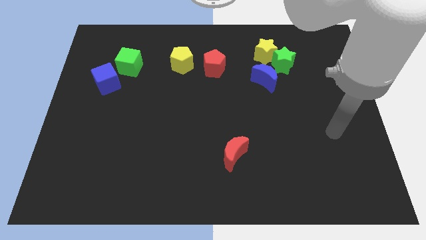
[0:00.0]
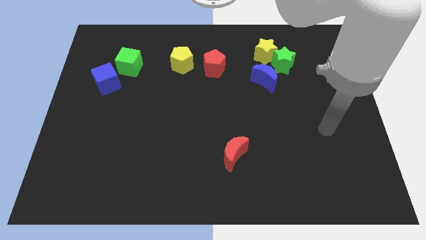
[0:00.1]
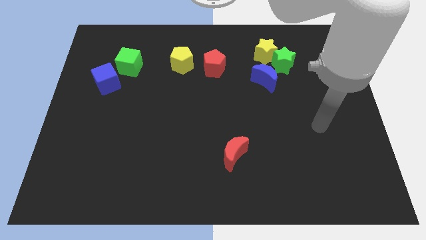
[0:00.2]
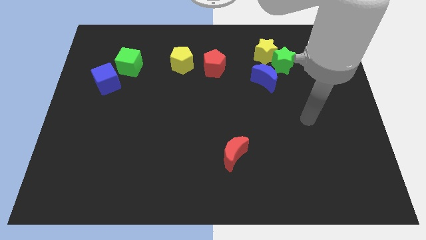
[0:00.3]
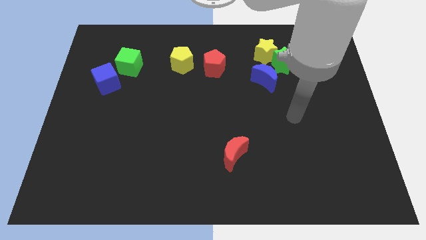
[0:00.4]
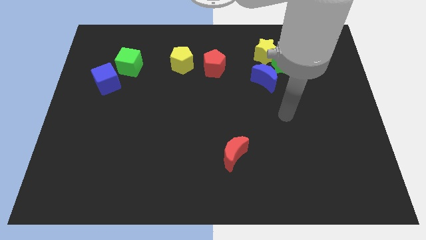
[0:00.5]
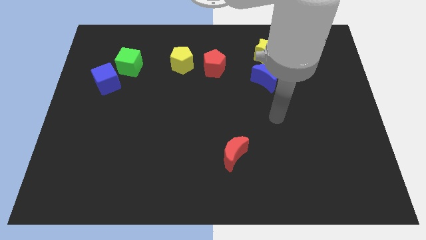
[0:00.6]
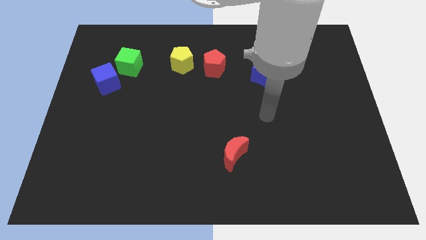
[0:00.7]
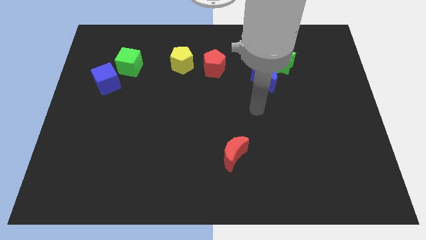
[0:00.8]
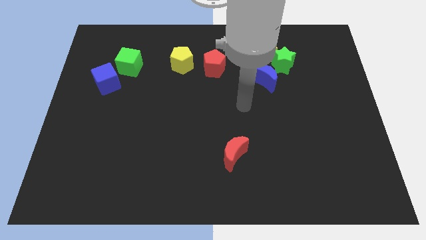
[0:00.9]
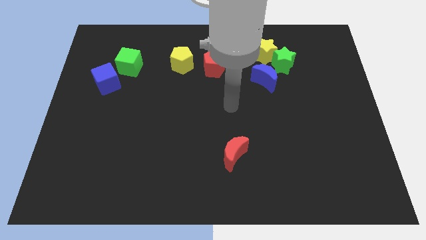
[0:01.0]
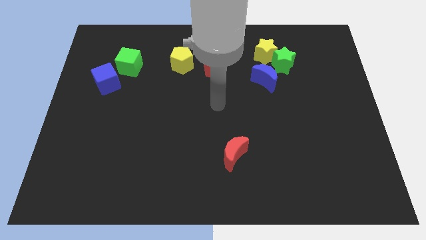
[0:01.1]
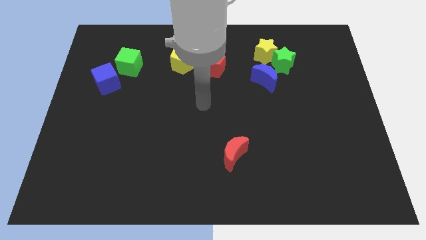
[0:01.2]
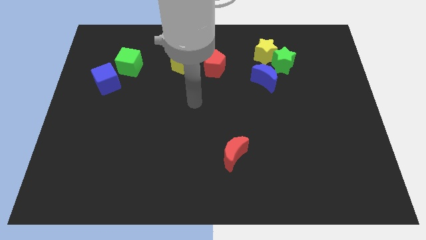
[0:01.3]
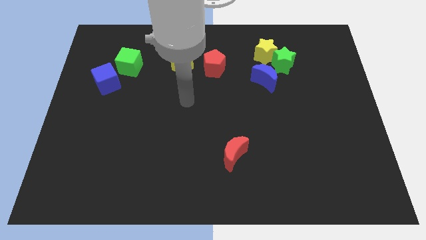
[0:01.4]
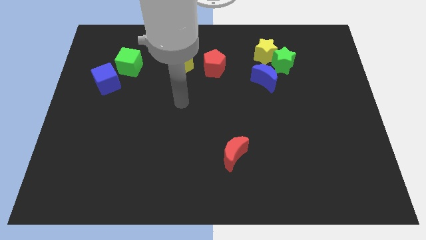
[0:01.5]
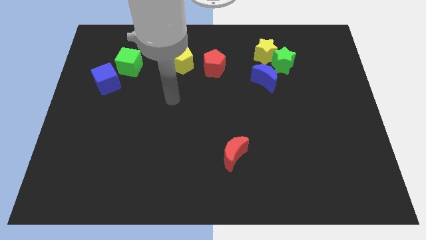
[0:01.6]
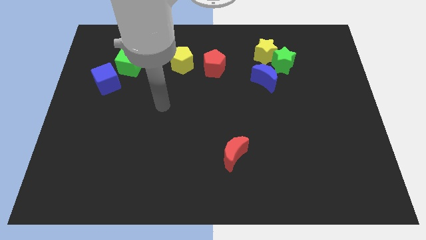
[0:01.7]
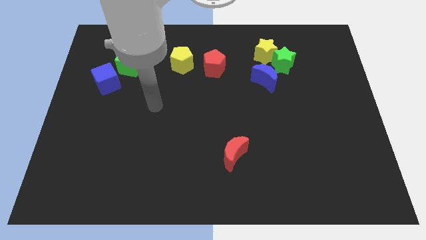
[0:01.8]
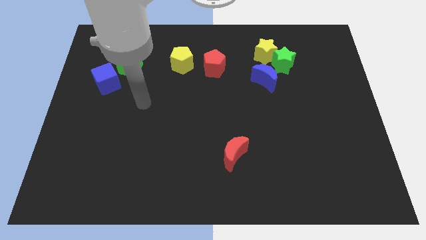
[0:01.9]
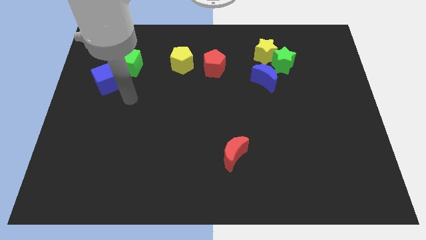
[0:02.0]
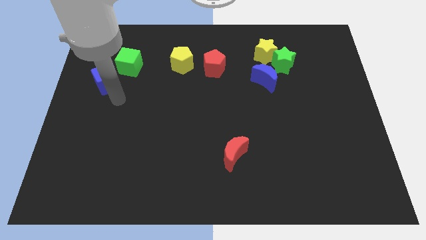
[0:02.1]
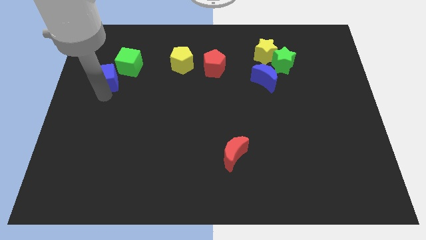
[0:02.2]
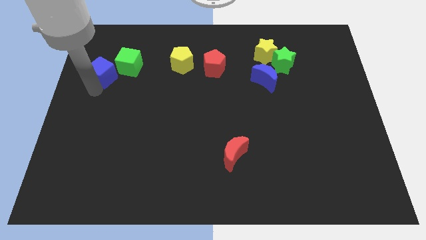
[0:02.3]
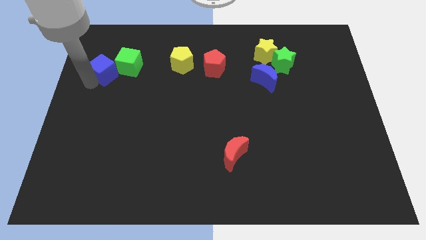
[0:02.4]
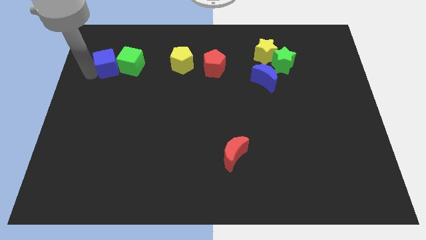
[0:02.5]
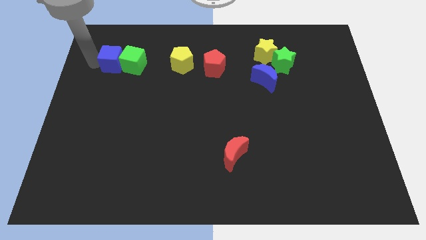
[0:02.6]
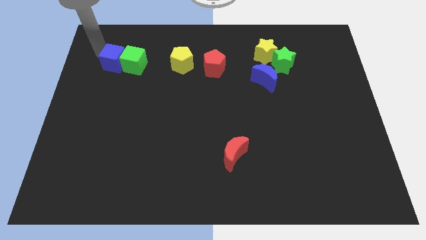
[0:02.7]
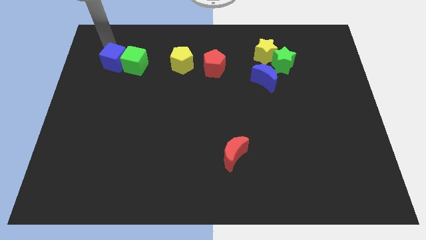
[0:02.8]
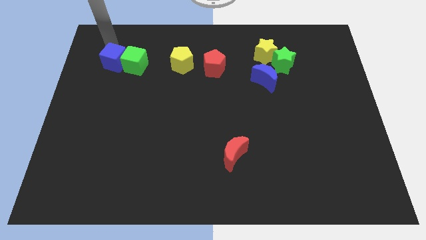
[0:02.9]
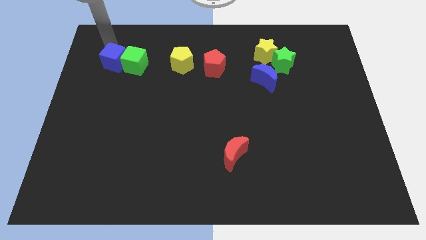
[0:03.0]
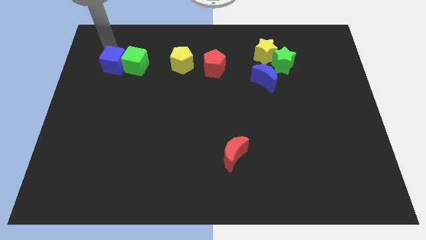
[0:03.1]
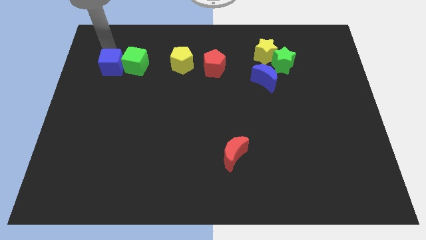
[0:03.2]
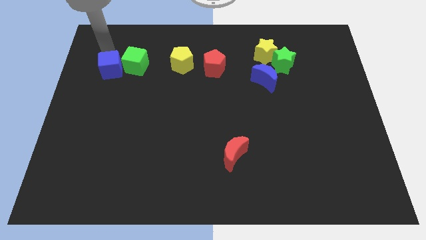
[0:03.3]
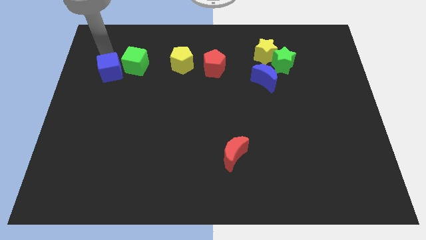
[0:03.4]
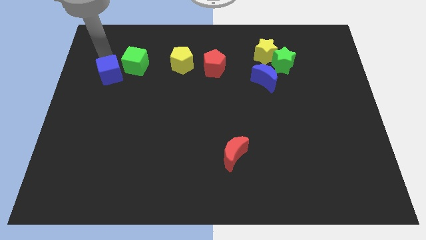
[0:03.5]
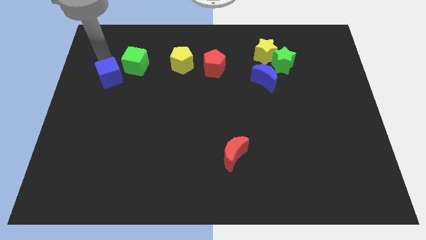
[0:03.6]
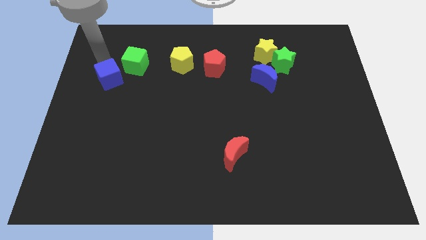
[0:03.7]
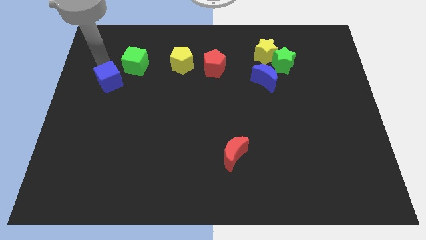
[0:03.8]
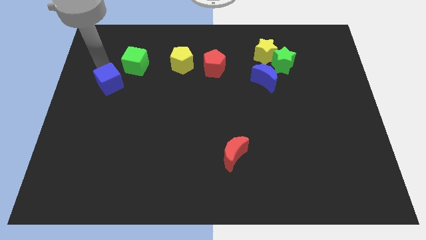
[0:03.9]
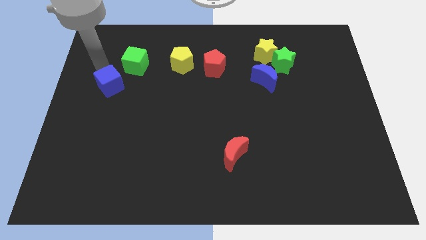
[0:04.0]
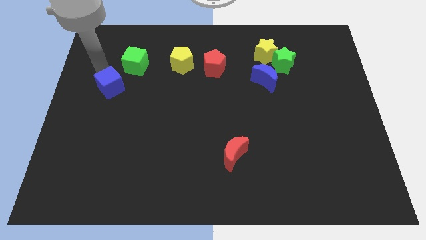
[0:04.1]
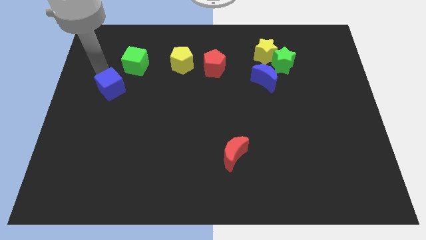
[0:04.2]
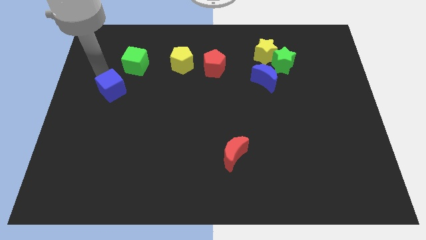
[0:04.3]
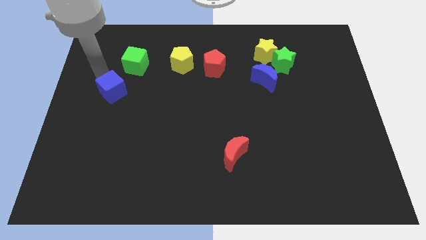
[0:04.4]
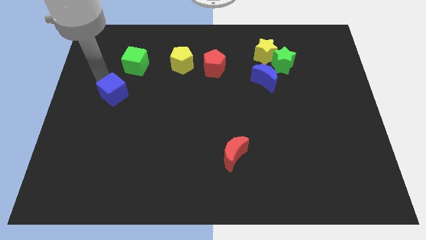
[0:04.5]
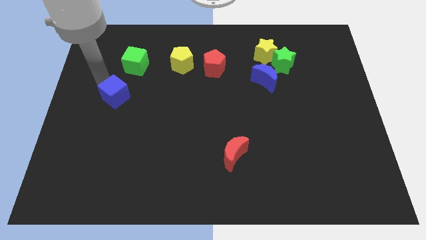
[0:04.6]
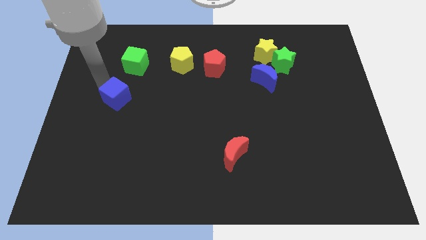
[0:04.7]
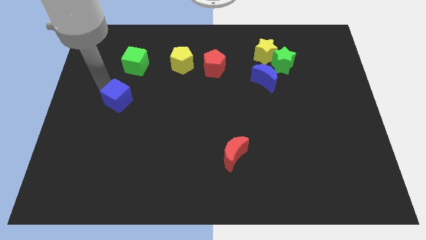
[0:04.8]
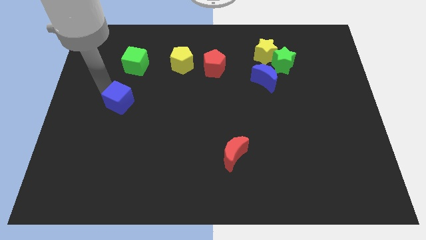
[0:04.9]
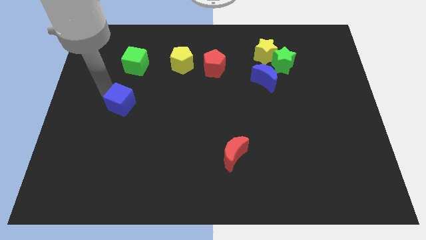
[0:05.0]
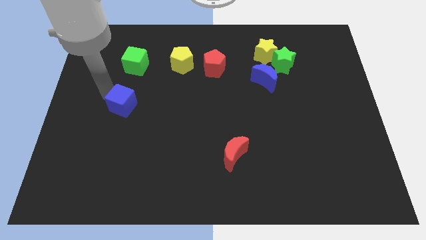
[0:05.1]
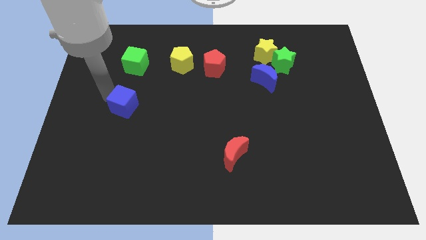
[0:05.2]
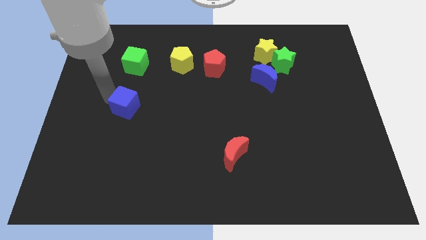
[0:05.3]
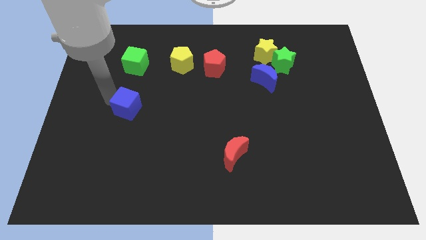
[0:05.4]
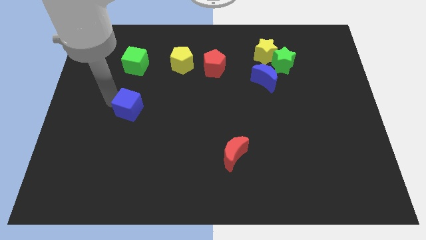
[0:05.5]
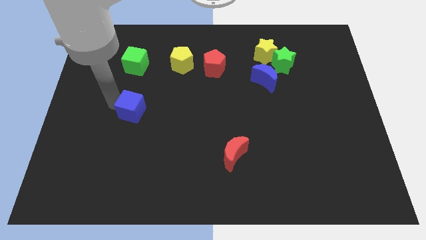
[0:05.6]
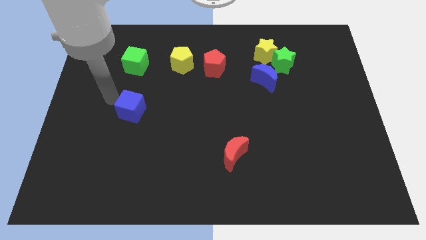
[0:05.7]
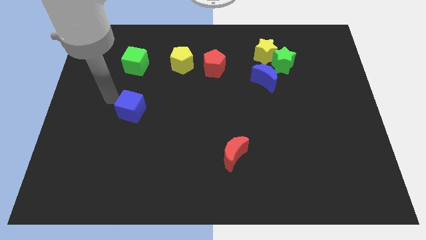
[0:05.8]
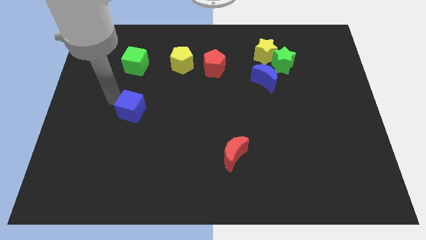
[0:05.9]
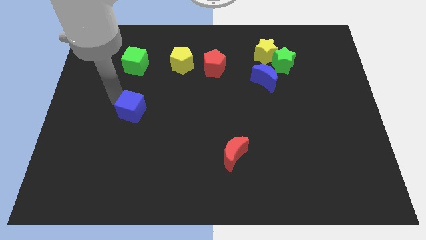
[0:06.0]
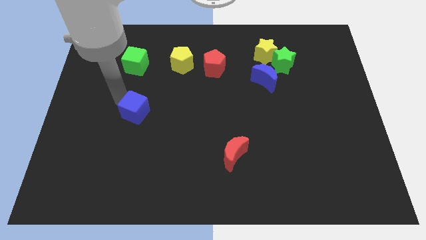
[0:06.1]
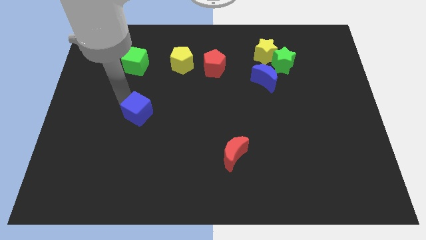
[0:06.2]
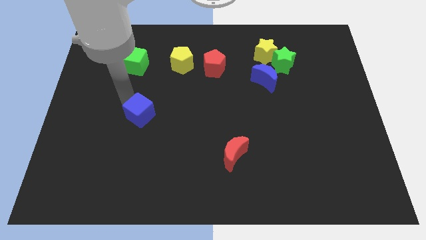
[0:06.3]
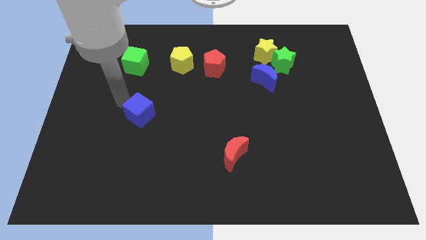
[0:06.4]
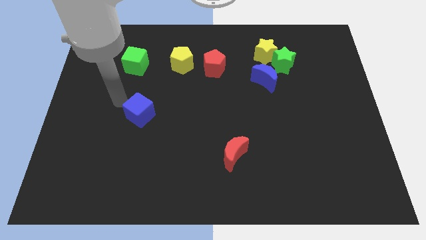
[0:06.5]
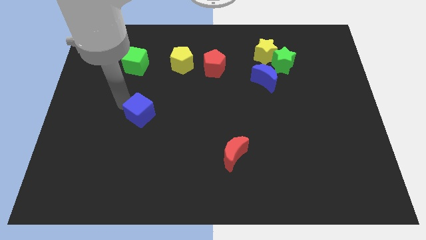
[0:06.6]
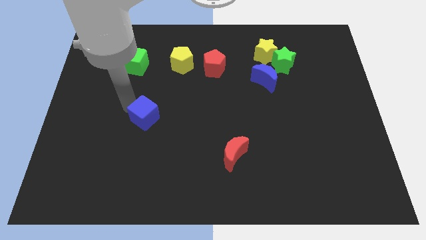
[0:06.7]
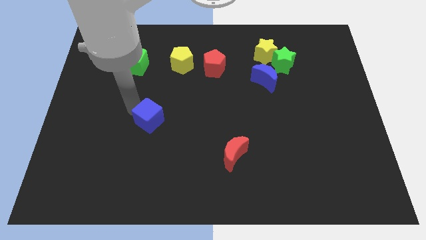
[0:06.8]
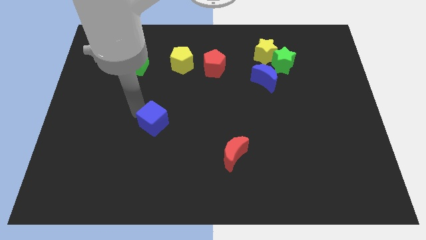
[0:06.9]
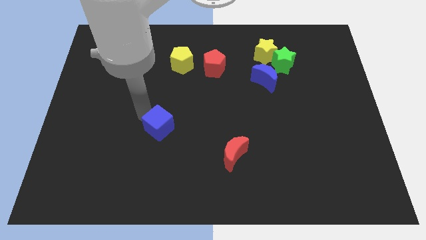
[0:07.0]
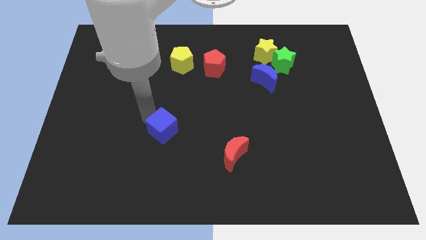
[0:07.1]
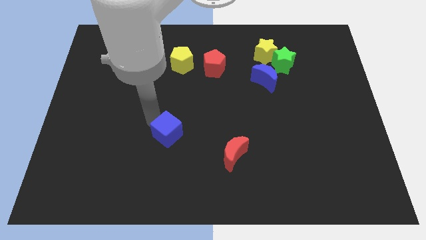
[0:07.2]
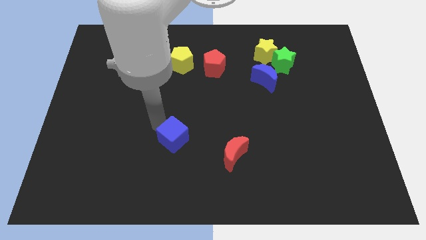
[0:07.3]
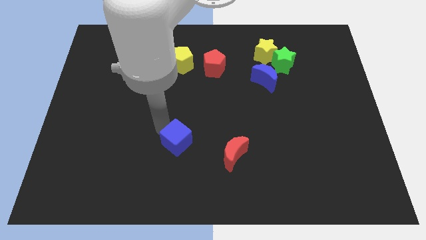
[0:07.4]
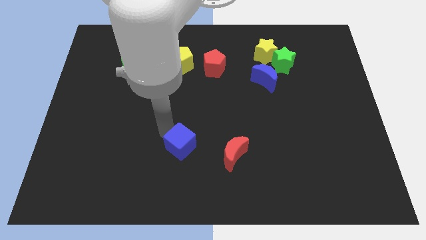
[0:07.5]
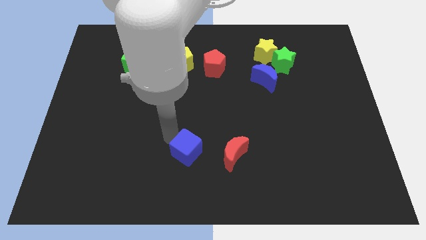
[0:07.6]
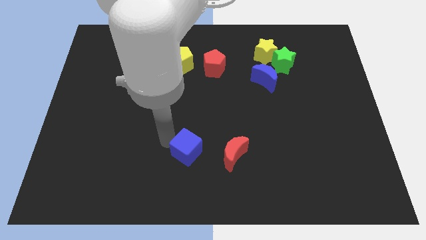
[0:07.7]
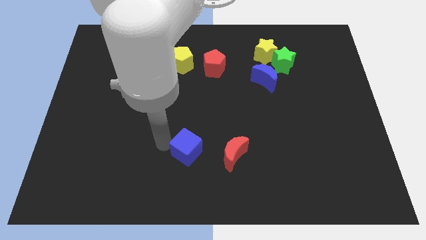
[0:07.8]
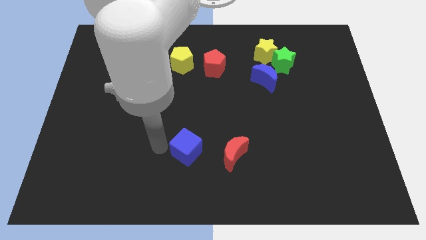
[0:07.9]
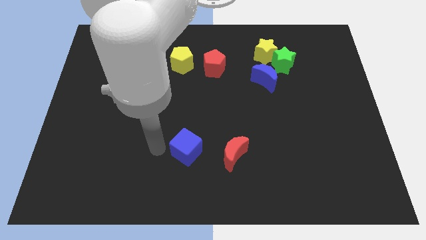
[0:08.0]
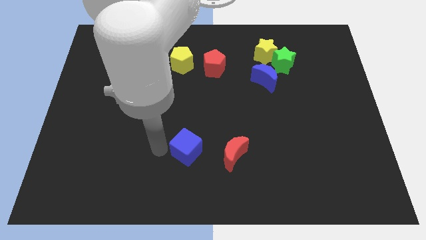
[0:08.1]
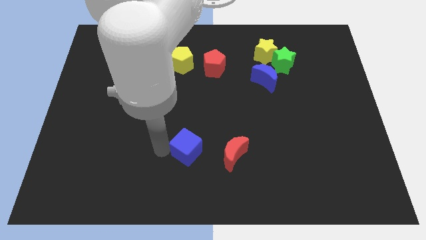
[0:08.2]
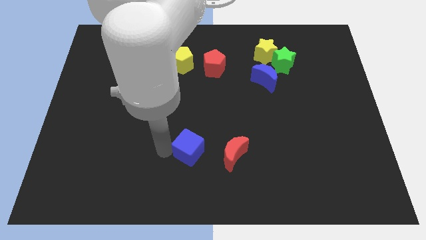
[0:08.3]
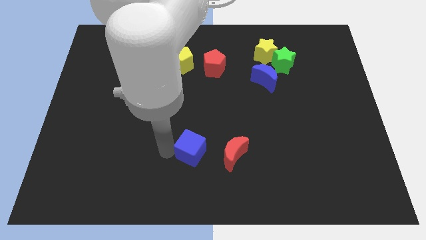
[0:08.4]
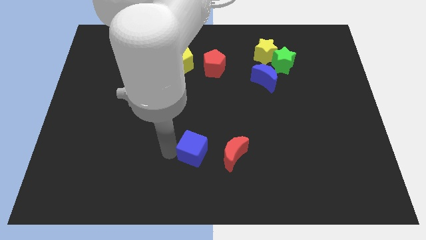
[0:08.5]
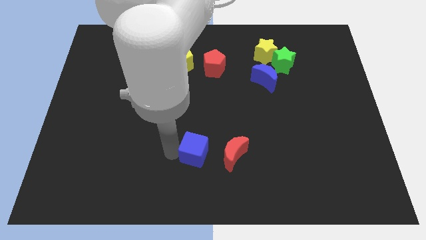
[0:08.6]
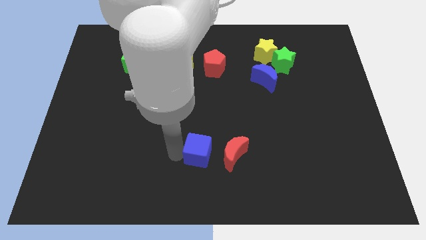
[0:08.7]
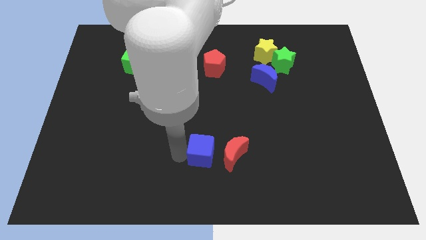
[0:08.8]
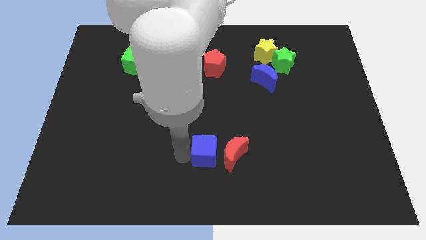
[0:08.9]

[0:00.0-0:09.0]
push the blue cube to the red moon
